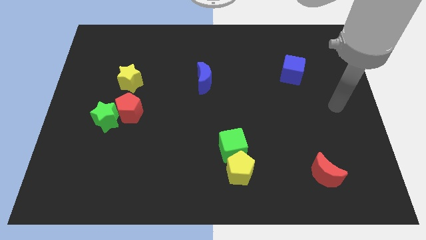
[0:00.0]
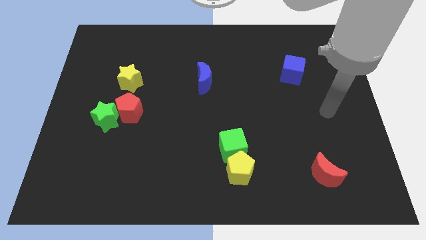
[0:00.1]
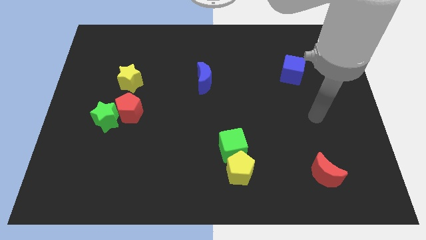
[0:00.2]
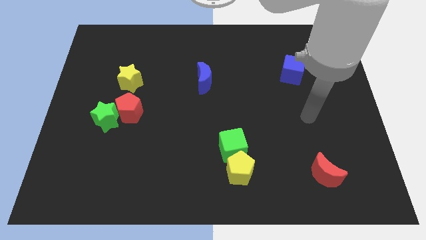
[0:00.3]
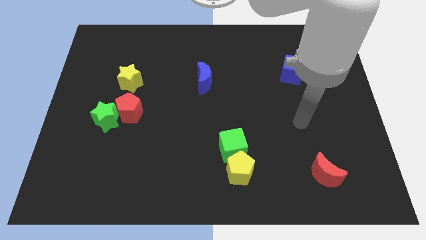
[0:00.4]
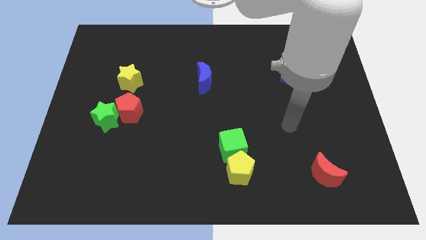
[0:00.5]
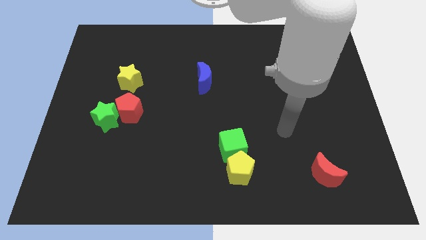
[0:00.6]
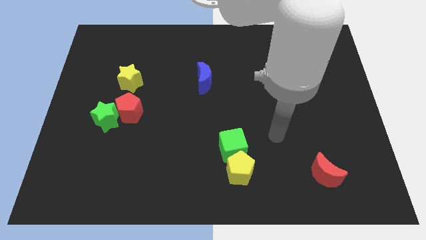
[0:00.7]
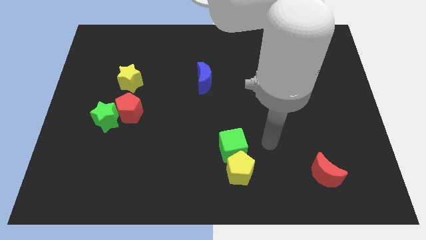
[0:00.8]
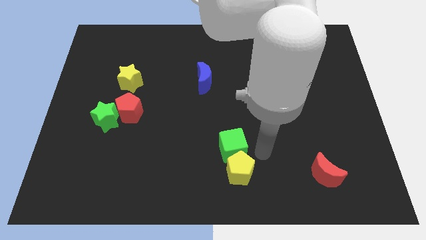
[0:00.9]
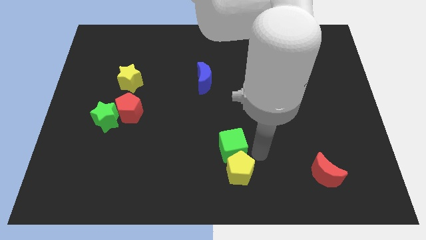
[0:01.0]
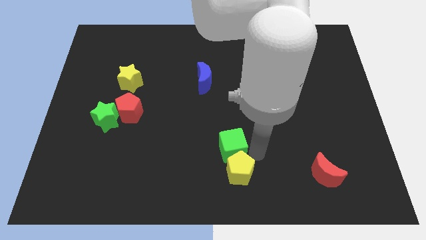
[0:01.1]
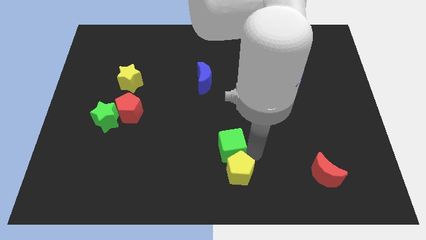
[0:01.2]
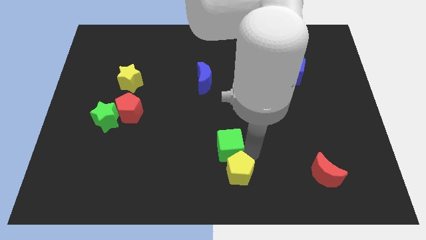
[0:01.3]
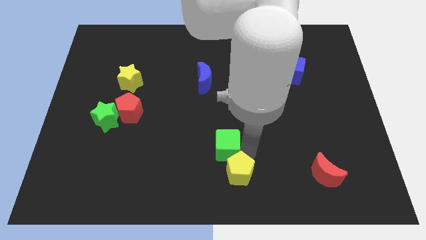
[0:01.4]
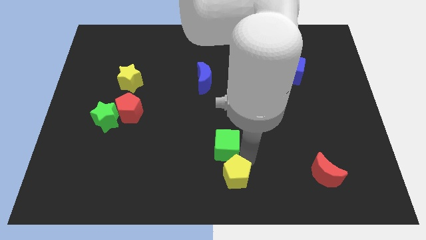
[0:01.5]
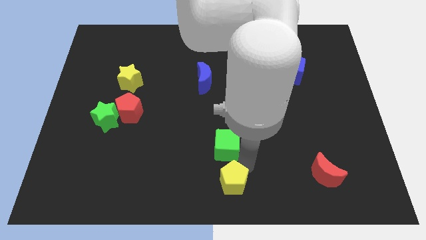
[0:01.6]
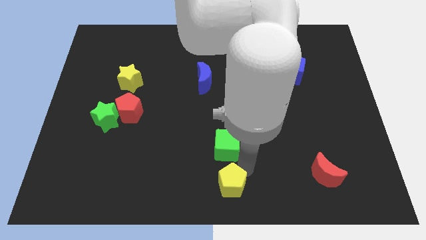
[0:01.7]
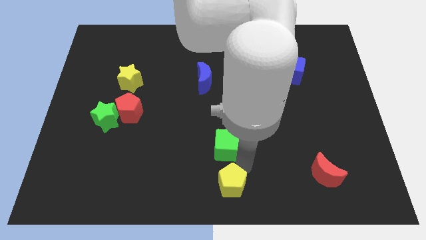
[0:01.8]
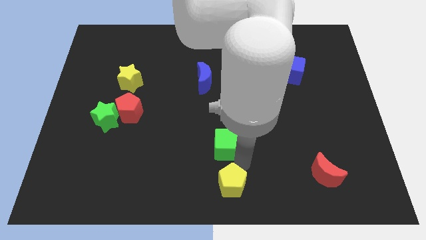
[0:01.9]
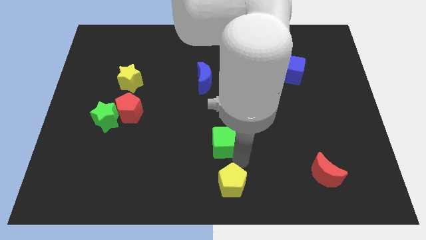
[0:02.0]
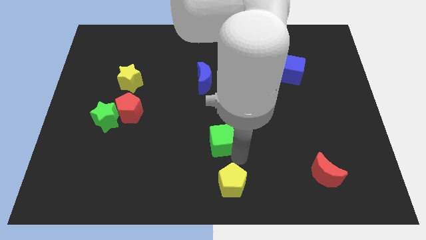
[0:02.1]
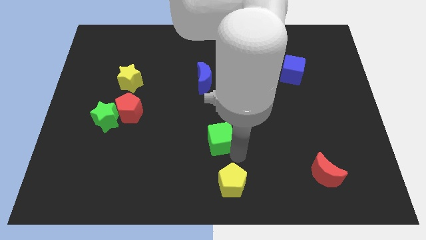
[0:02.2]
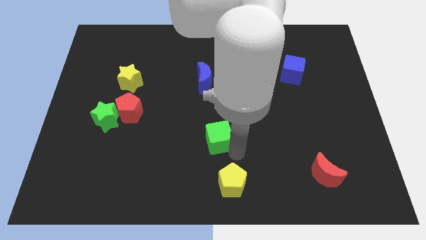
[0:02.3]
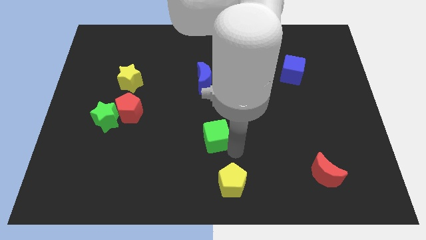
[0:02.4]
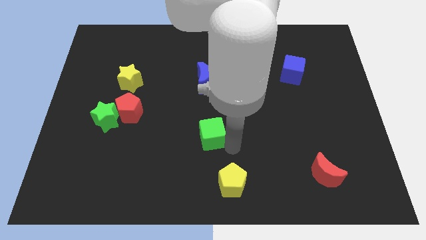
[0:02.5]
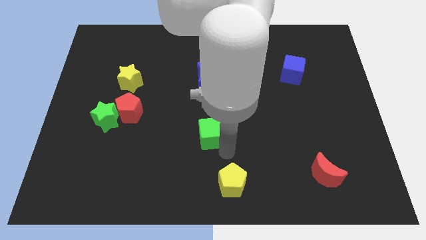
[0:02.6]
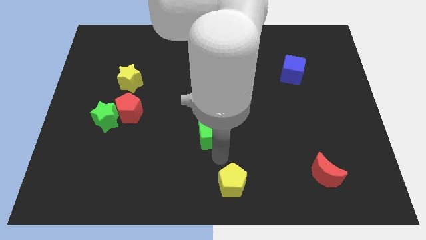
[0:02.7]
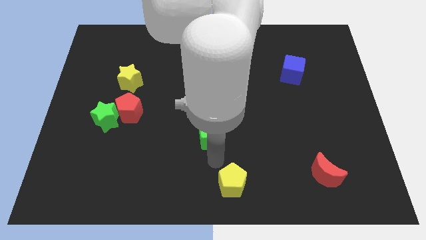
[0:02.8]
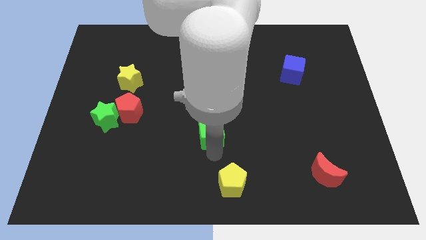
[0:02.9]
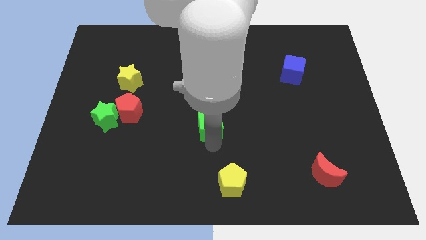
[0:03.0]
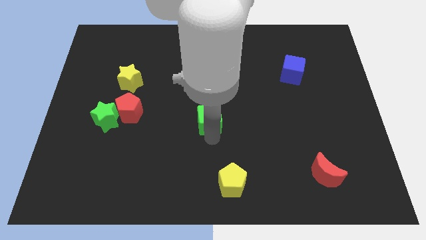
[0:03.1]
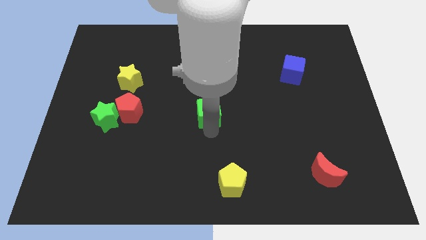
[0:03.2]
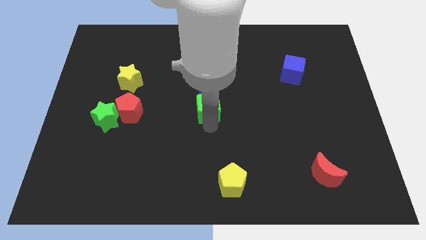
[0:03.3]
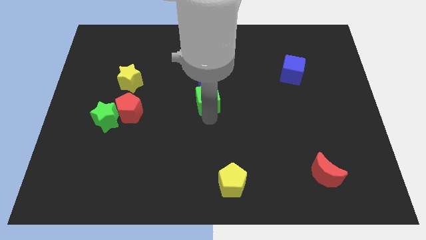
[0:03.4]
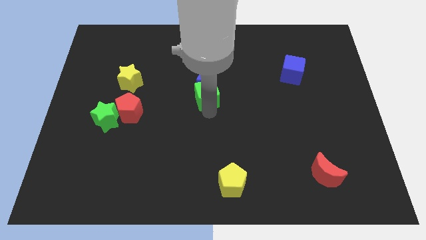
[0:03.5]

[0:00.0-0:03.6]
push the green cube to the blue moon

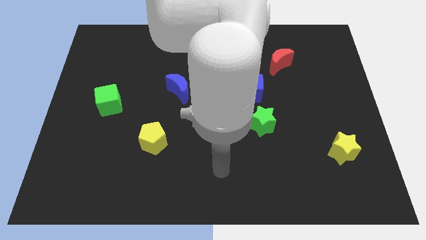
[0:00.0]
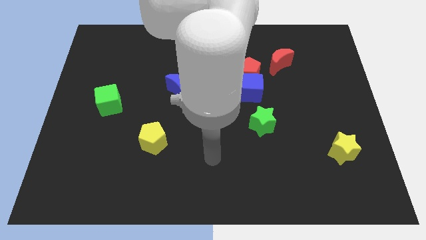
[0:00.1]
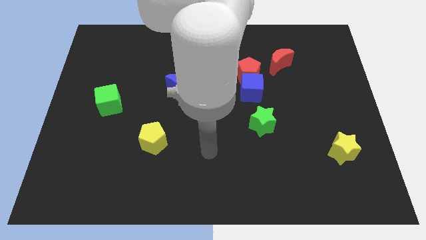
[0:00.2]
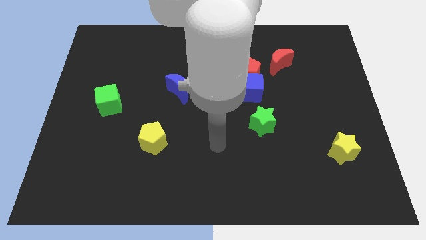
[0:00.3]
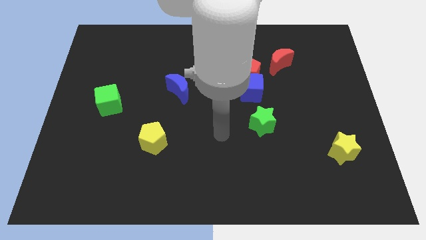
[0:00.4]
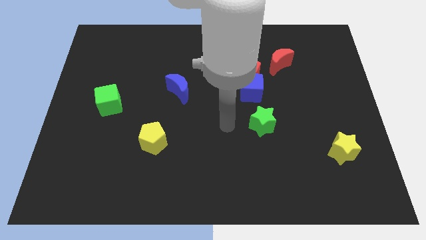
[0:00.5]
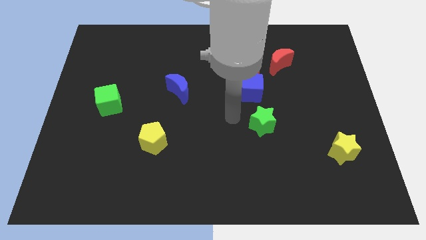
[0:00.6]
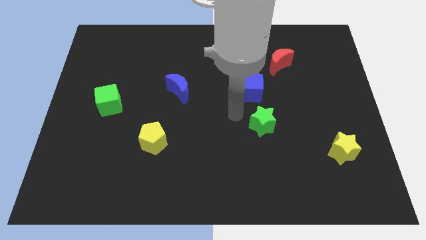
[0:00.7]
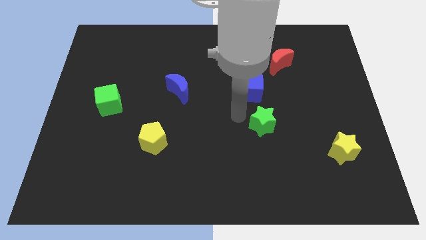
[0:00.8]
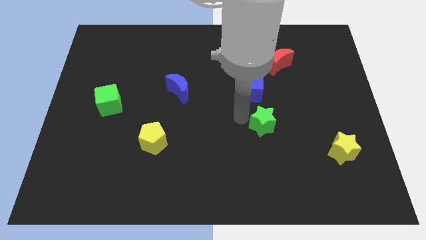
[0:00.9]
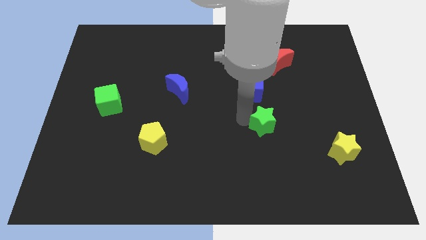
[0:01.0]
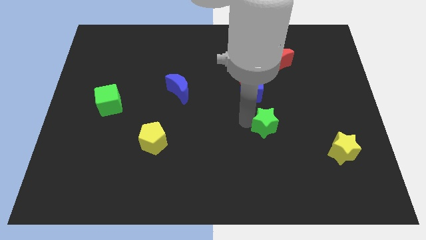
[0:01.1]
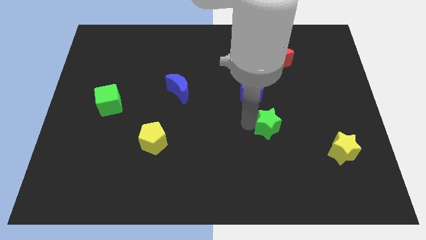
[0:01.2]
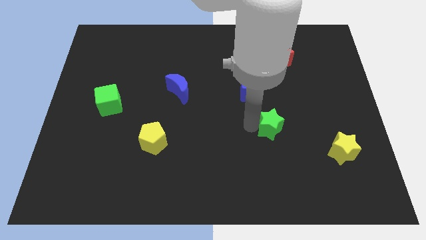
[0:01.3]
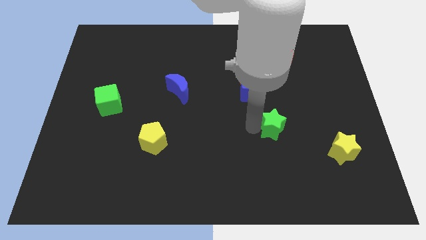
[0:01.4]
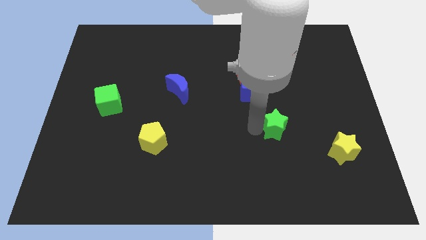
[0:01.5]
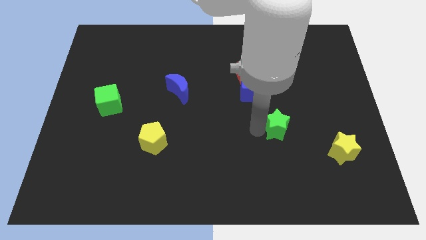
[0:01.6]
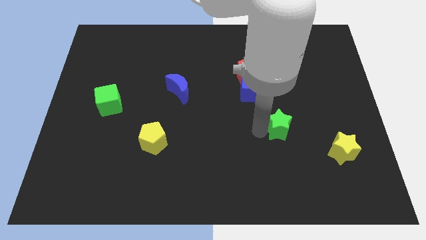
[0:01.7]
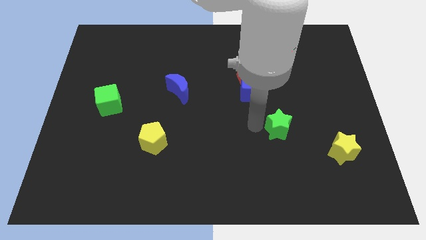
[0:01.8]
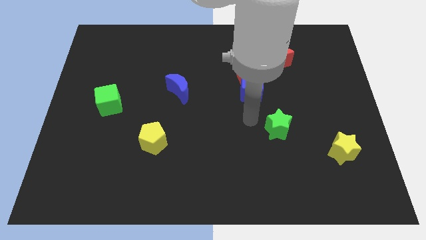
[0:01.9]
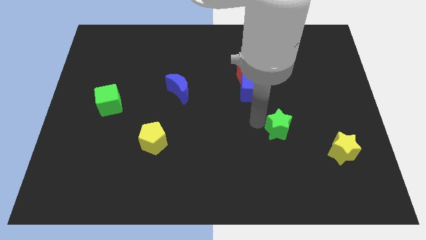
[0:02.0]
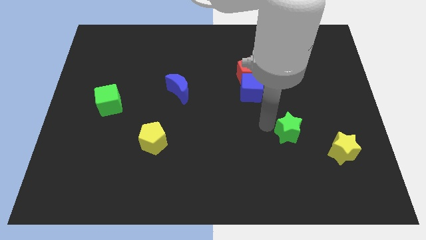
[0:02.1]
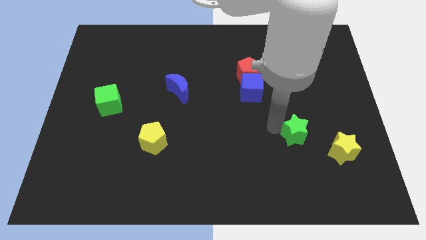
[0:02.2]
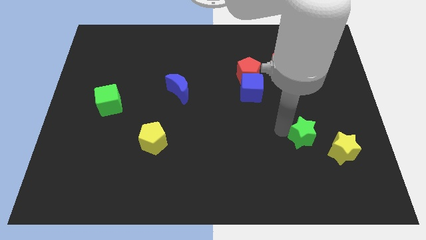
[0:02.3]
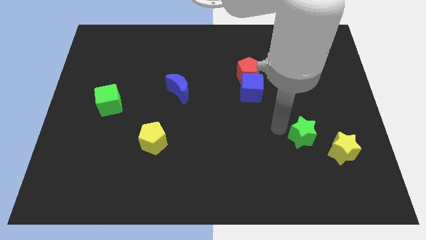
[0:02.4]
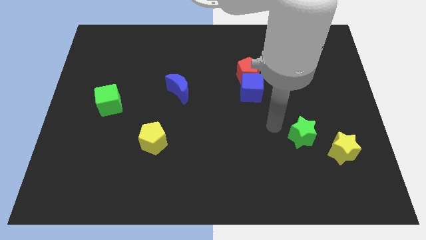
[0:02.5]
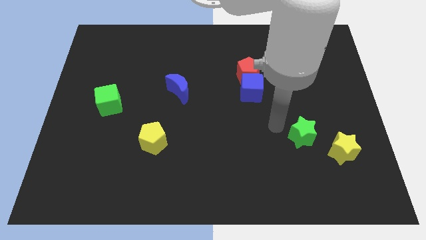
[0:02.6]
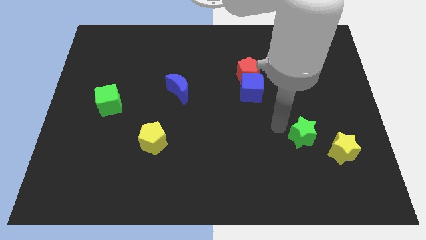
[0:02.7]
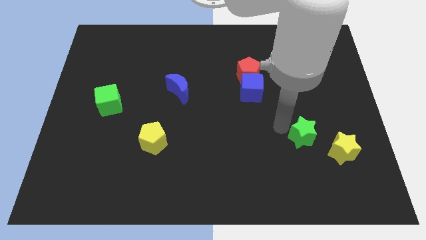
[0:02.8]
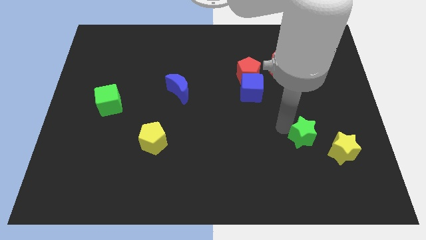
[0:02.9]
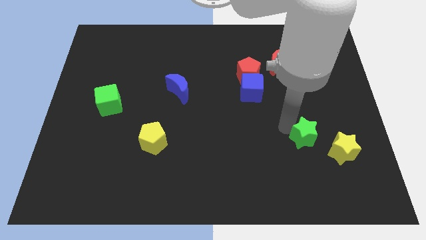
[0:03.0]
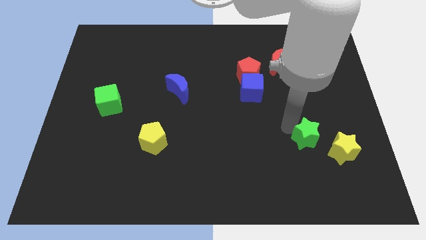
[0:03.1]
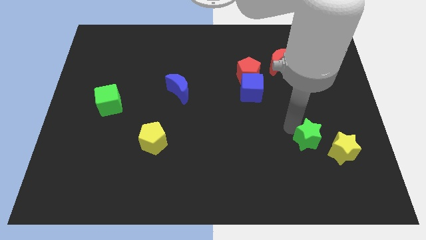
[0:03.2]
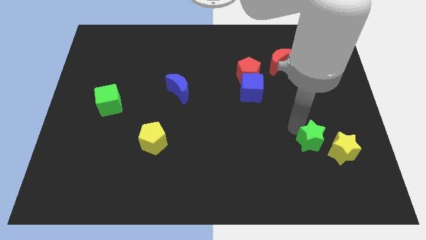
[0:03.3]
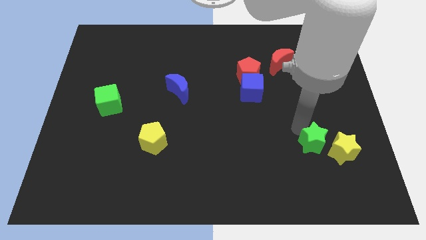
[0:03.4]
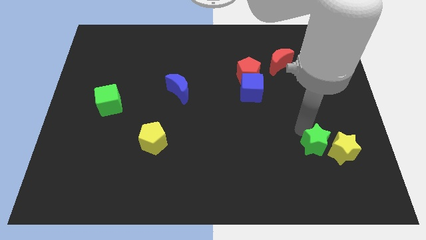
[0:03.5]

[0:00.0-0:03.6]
slide the green star to the yellow star

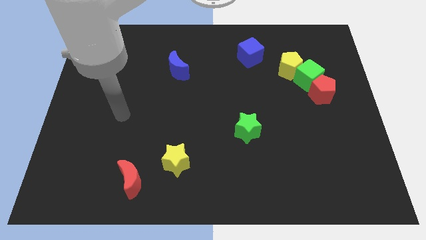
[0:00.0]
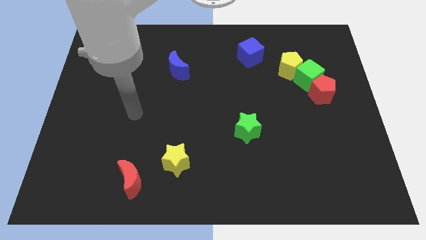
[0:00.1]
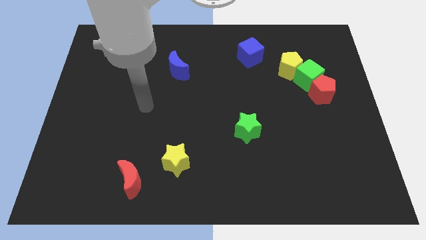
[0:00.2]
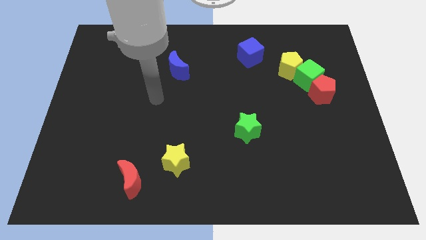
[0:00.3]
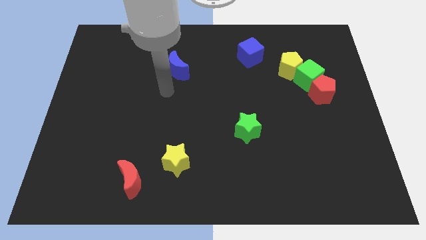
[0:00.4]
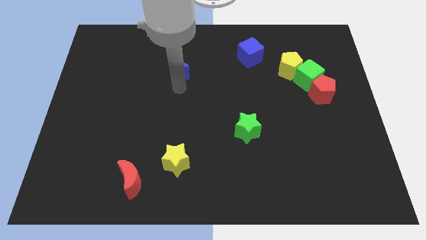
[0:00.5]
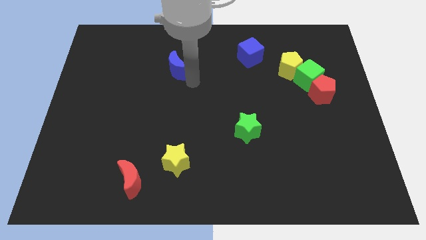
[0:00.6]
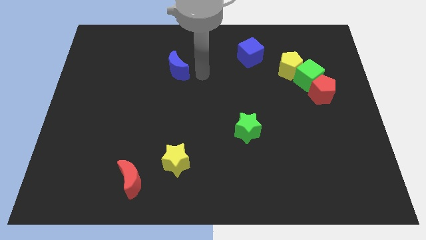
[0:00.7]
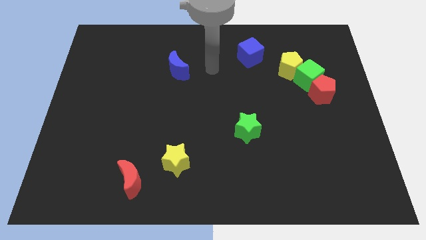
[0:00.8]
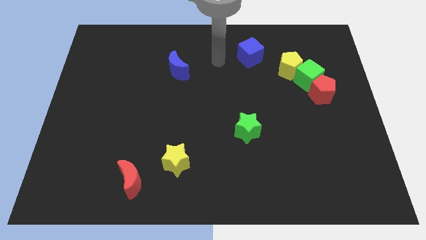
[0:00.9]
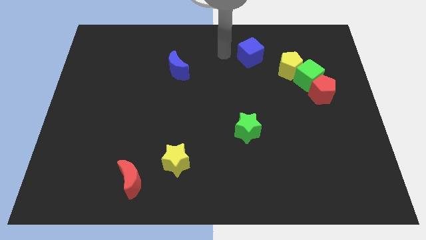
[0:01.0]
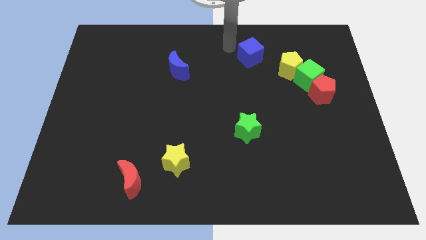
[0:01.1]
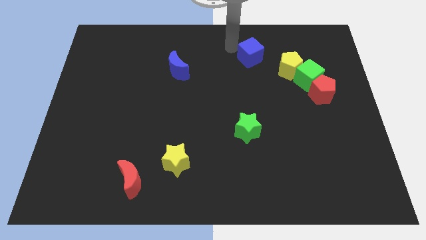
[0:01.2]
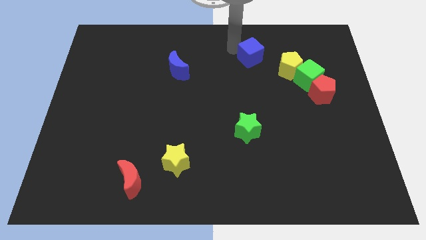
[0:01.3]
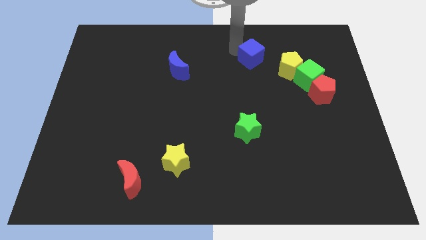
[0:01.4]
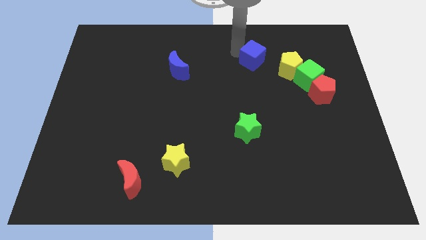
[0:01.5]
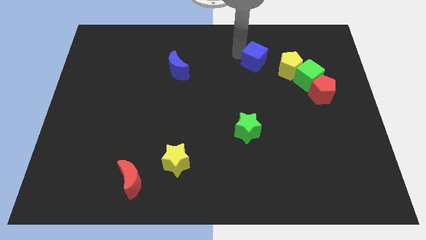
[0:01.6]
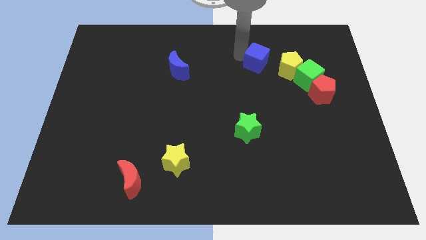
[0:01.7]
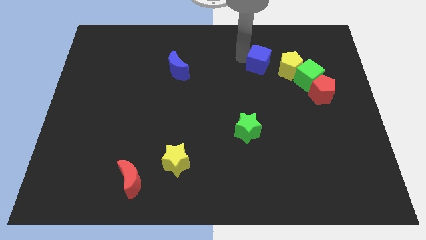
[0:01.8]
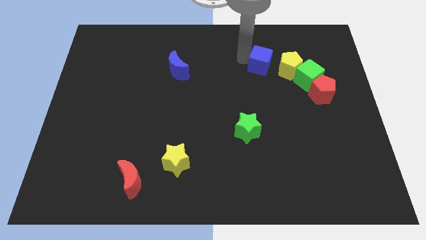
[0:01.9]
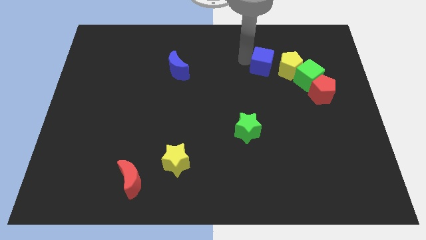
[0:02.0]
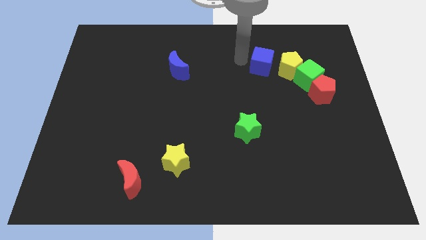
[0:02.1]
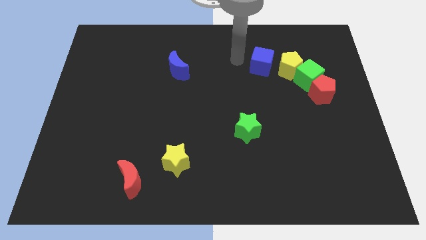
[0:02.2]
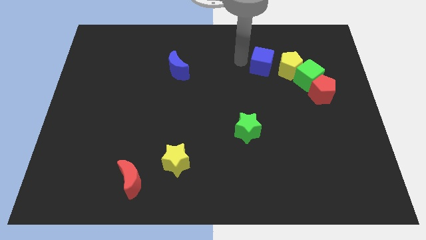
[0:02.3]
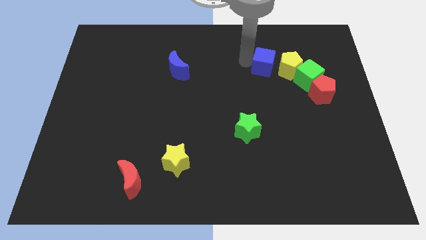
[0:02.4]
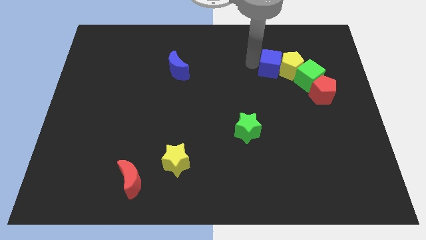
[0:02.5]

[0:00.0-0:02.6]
slide the blue cube towards the yellow pentagon
